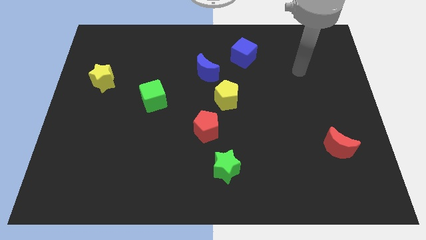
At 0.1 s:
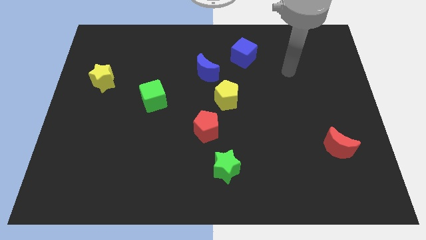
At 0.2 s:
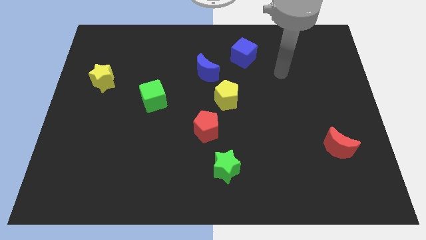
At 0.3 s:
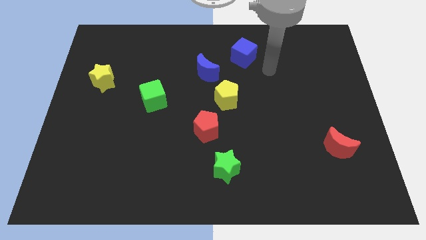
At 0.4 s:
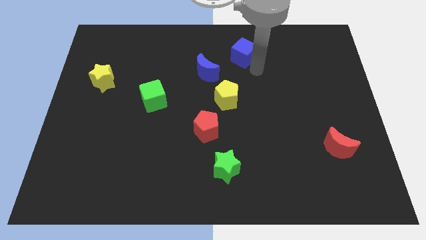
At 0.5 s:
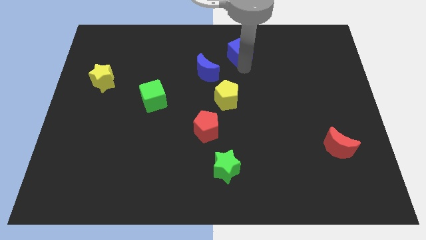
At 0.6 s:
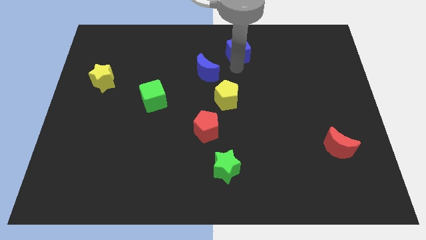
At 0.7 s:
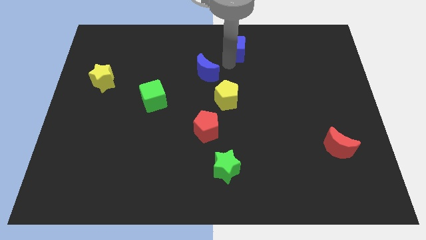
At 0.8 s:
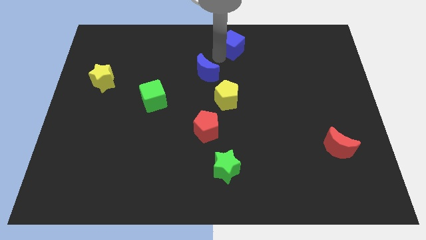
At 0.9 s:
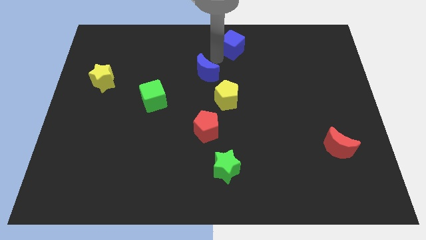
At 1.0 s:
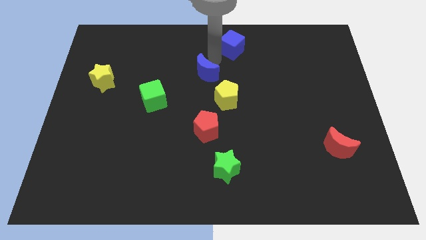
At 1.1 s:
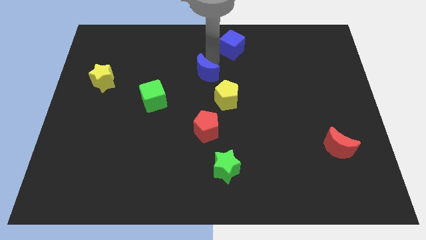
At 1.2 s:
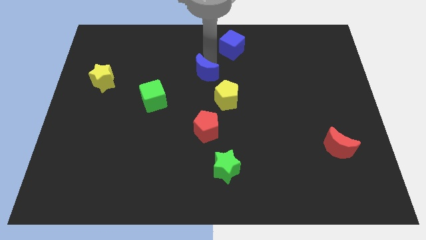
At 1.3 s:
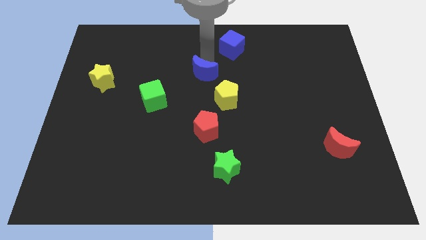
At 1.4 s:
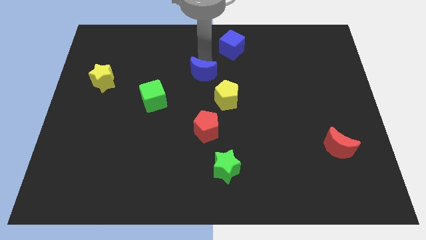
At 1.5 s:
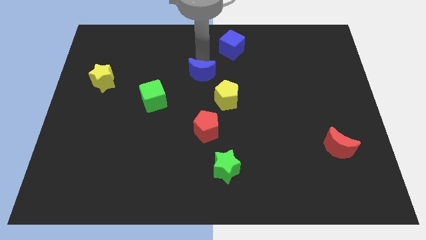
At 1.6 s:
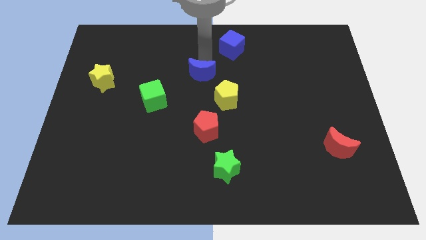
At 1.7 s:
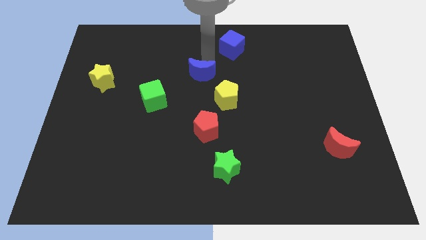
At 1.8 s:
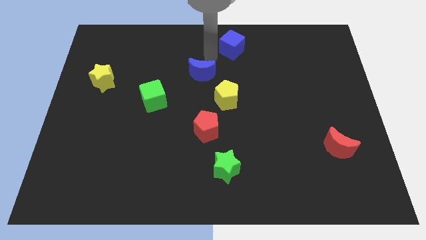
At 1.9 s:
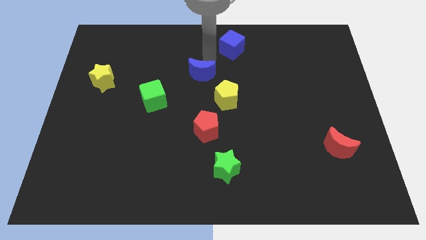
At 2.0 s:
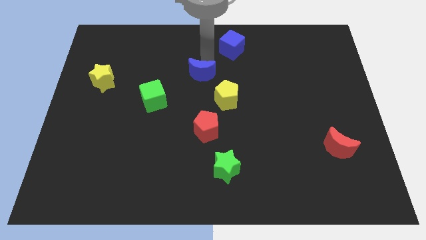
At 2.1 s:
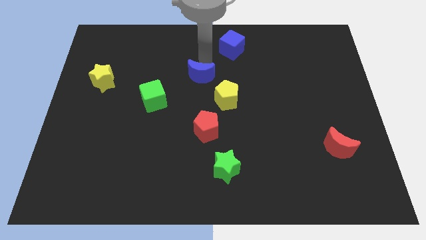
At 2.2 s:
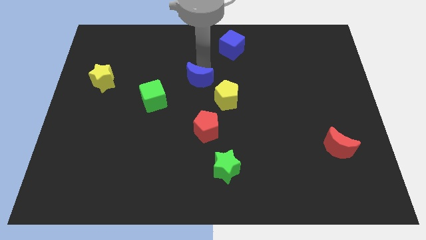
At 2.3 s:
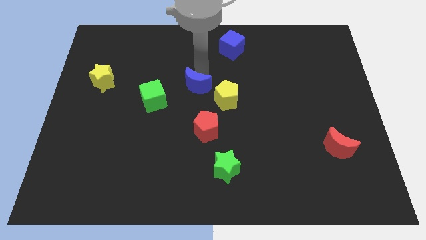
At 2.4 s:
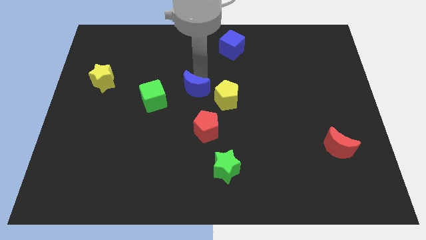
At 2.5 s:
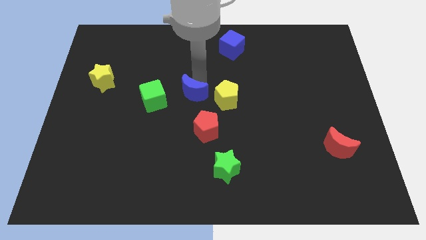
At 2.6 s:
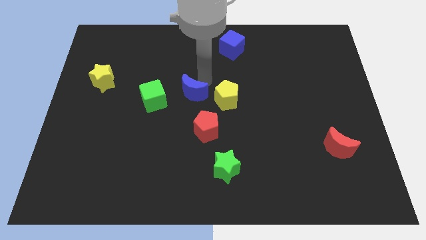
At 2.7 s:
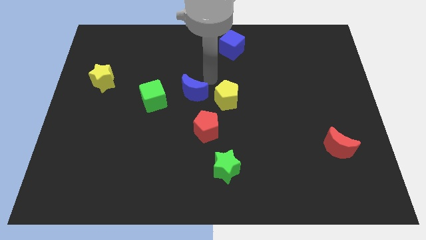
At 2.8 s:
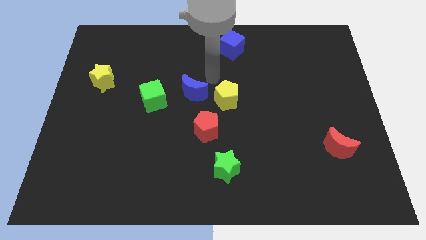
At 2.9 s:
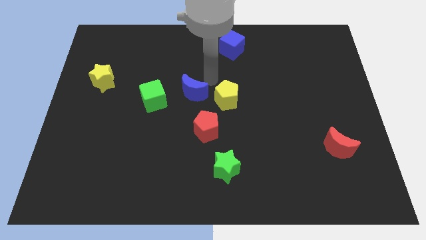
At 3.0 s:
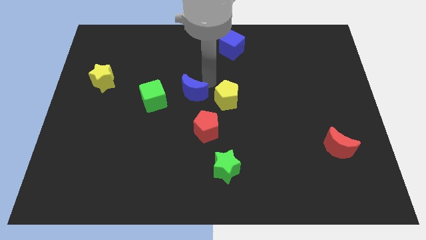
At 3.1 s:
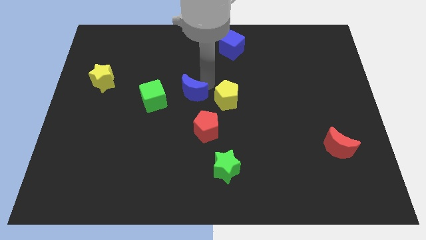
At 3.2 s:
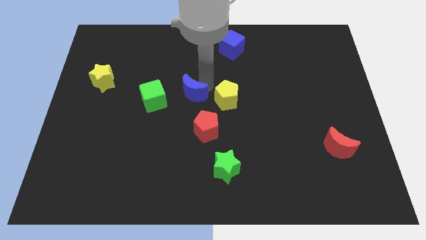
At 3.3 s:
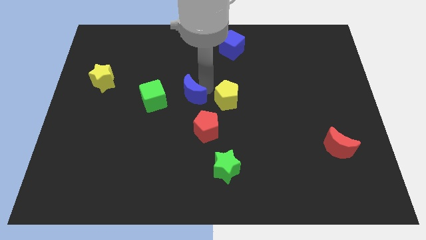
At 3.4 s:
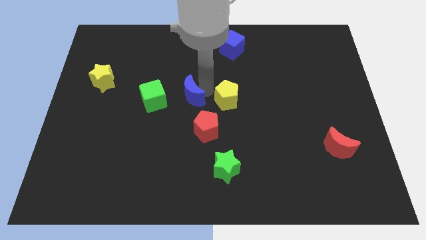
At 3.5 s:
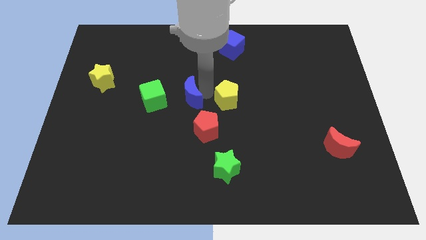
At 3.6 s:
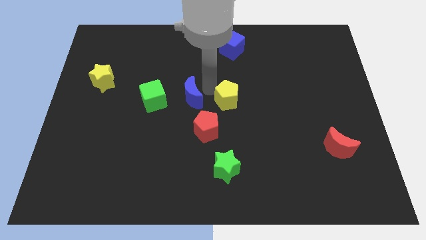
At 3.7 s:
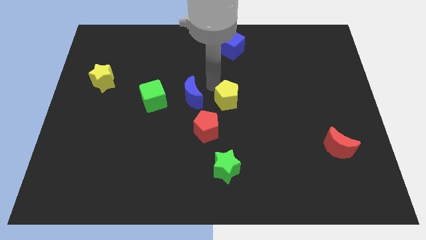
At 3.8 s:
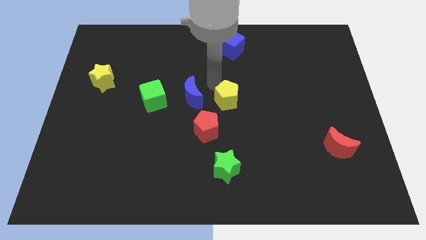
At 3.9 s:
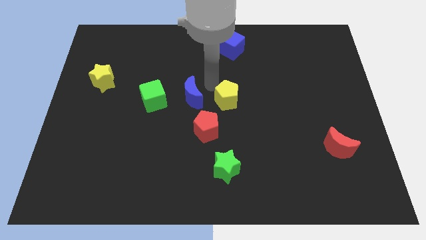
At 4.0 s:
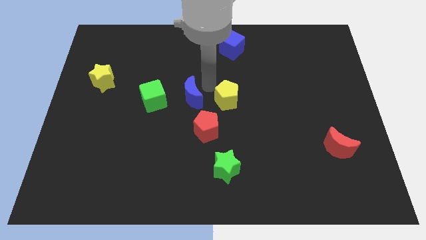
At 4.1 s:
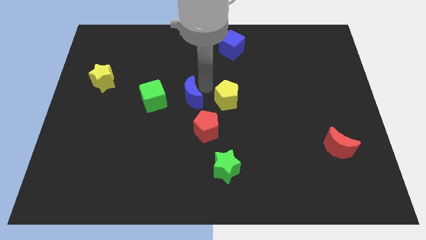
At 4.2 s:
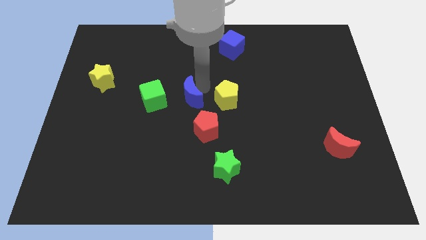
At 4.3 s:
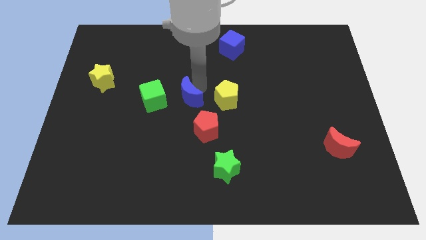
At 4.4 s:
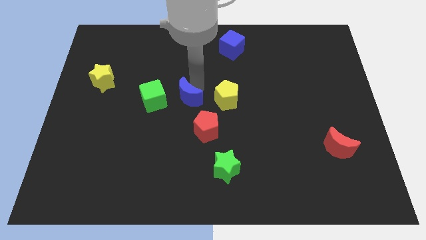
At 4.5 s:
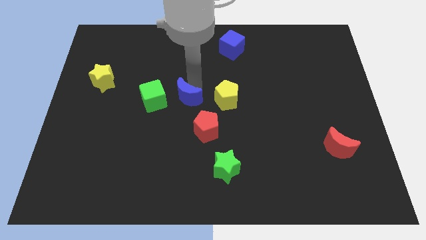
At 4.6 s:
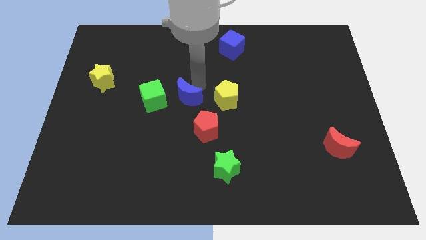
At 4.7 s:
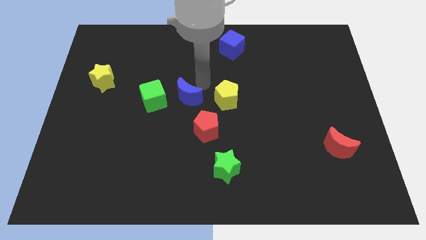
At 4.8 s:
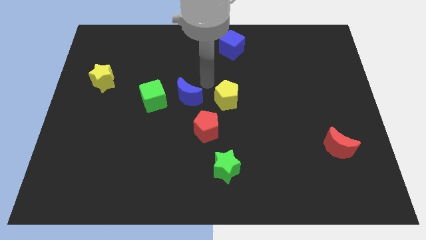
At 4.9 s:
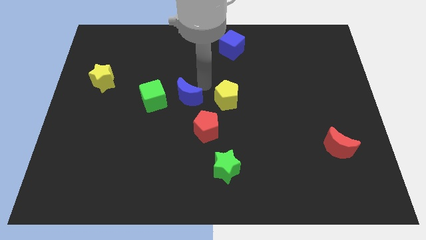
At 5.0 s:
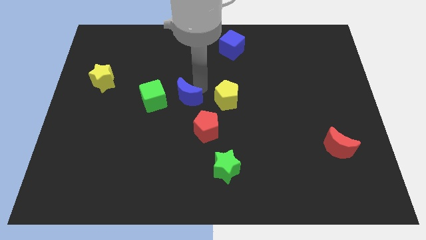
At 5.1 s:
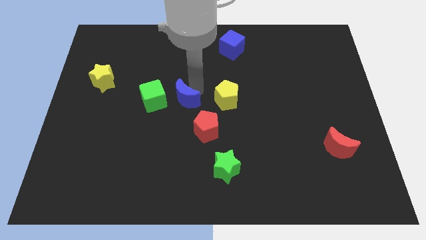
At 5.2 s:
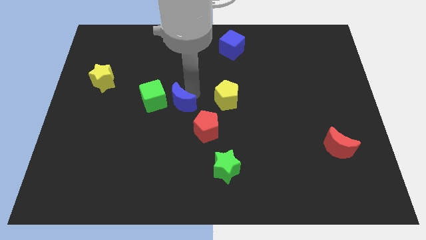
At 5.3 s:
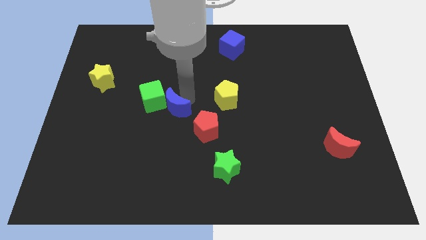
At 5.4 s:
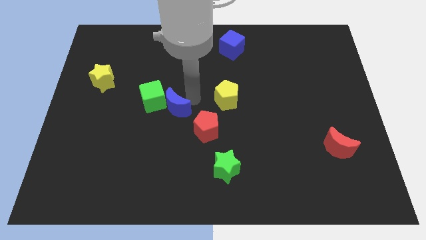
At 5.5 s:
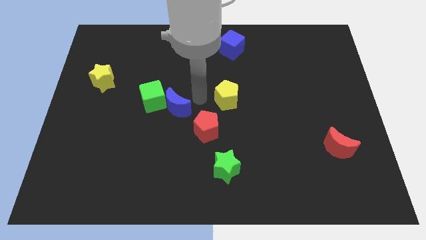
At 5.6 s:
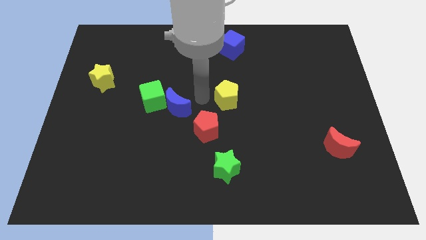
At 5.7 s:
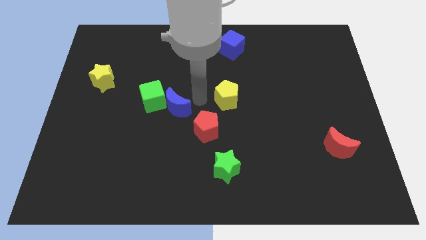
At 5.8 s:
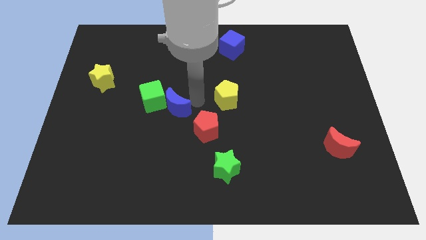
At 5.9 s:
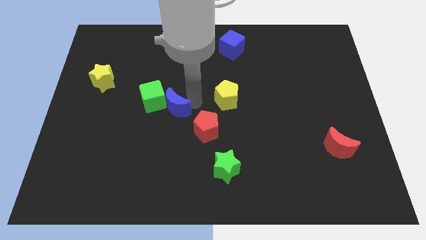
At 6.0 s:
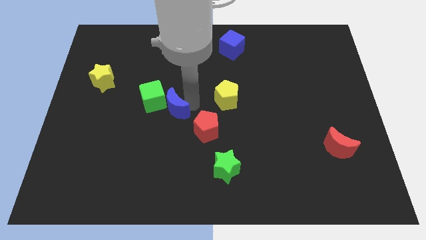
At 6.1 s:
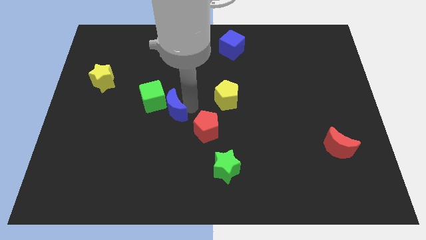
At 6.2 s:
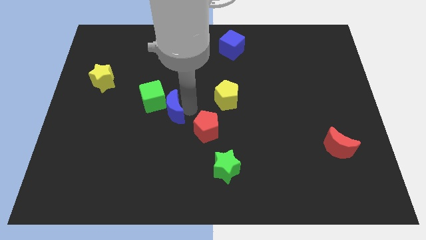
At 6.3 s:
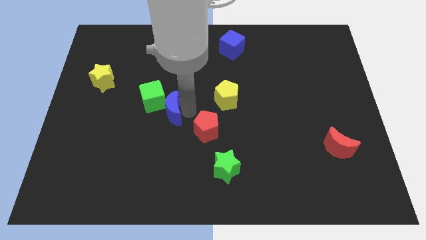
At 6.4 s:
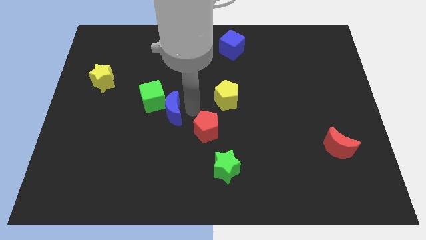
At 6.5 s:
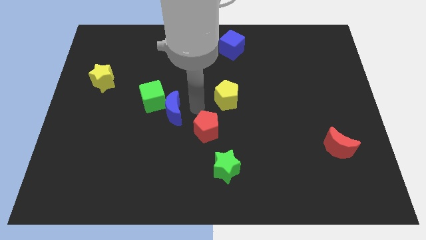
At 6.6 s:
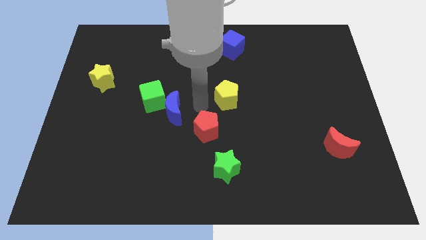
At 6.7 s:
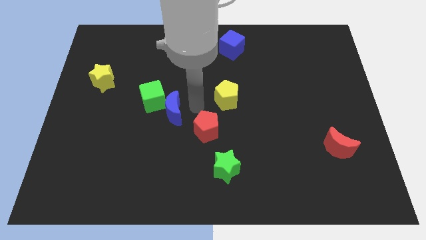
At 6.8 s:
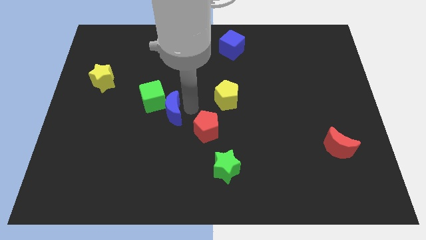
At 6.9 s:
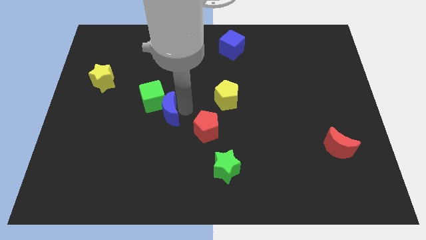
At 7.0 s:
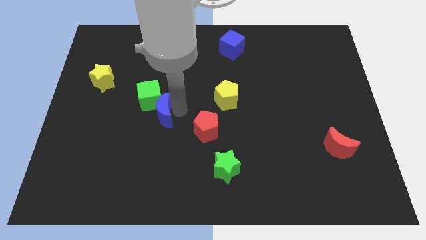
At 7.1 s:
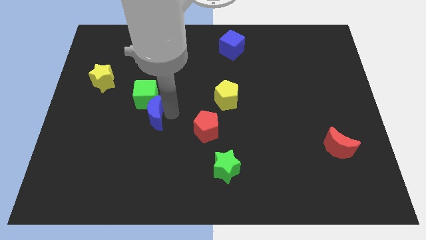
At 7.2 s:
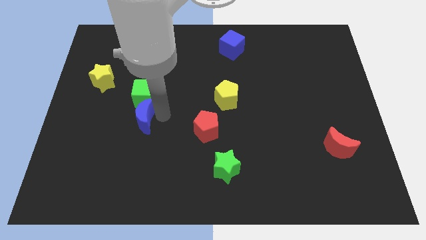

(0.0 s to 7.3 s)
push the blue moon diagonally down and to the left of the green cube

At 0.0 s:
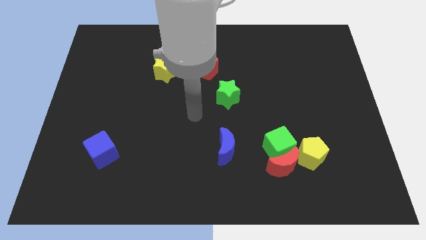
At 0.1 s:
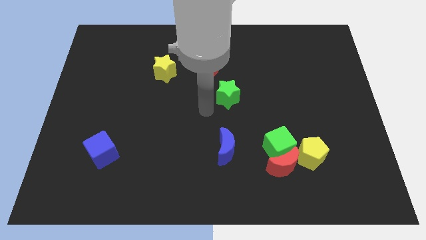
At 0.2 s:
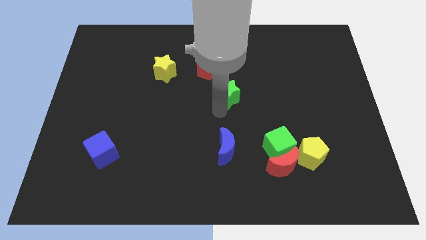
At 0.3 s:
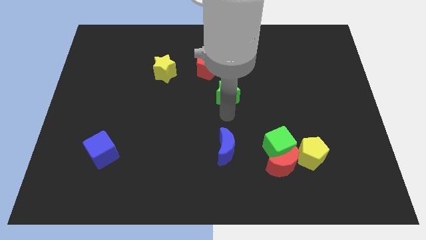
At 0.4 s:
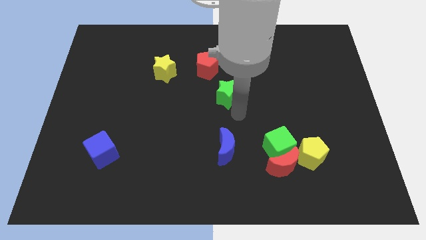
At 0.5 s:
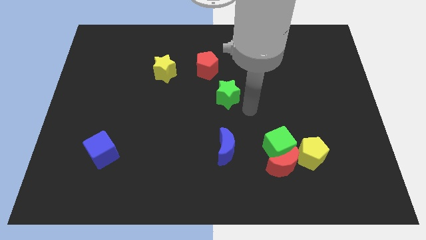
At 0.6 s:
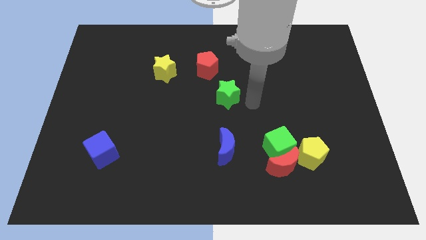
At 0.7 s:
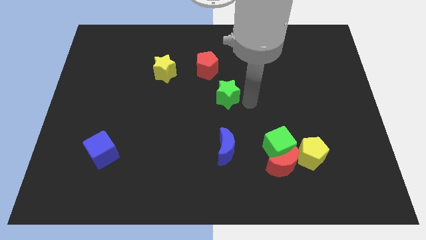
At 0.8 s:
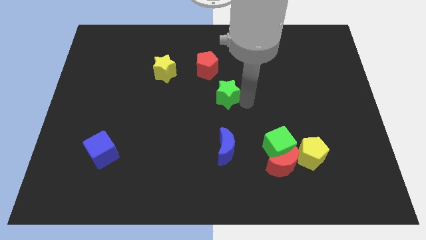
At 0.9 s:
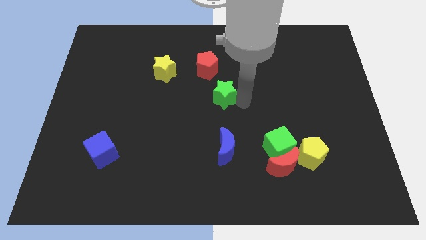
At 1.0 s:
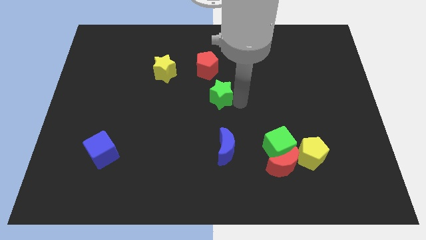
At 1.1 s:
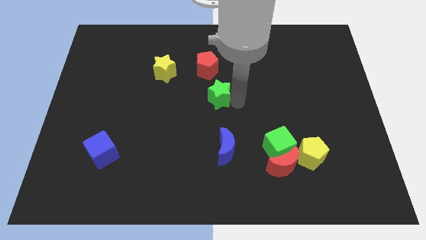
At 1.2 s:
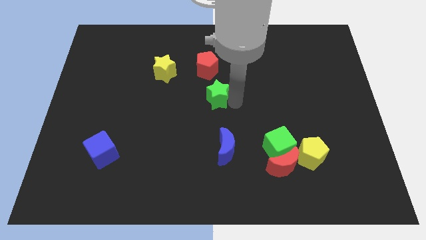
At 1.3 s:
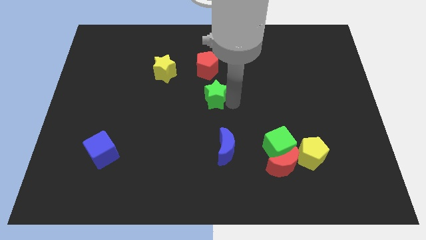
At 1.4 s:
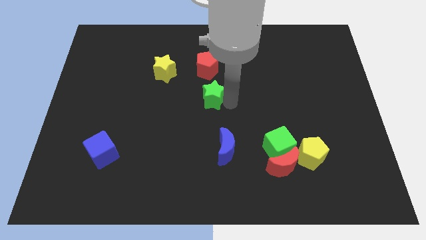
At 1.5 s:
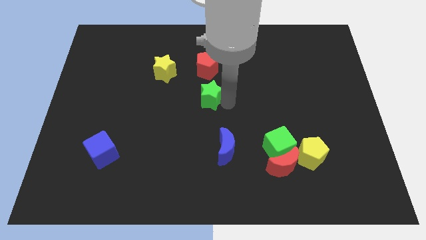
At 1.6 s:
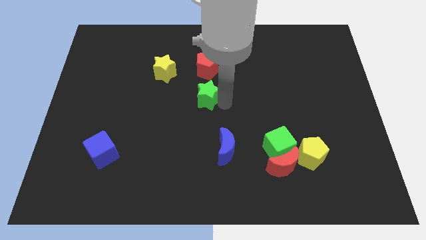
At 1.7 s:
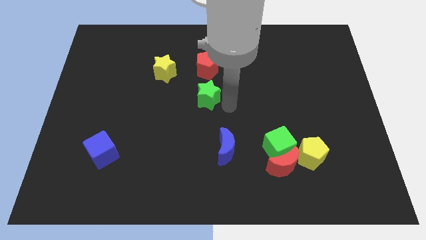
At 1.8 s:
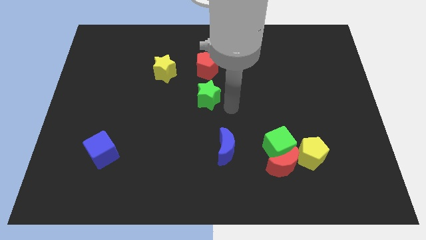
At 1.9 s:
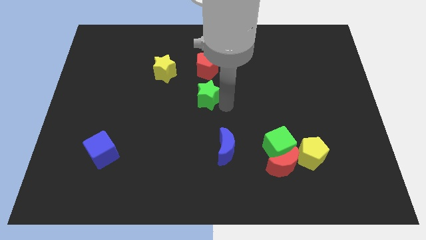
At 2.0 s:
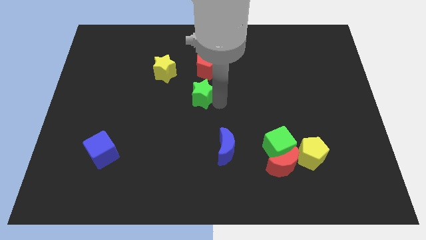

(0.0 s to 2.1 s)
put the green star to the bottom right side of the yellow star
